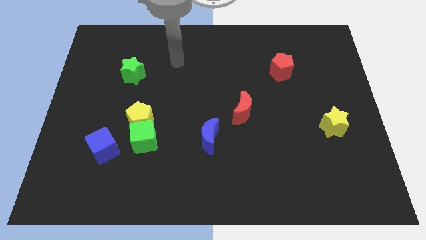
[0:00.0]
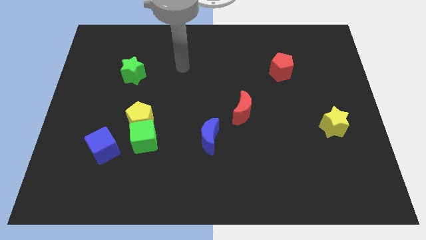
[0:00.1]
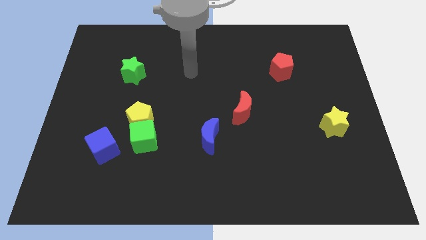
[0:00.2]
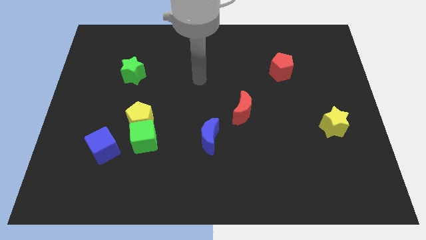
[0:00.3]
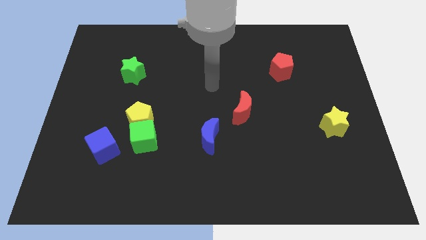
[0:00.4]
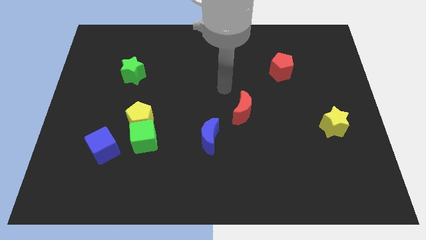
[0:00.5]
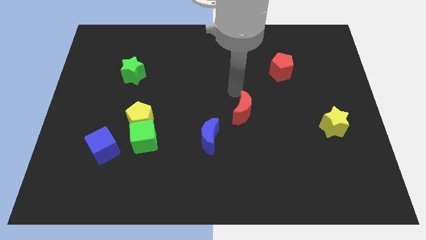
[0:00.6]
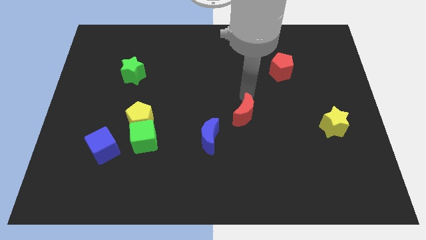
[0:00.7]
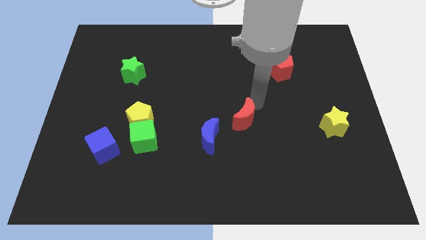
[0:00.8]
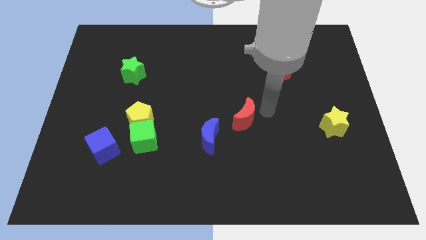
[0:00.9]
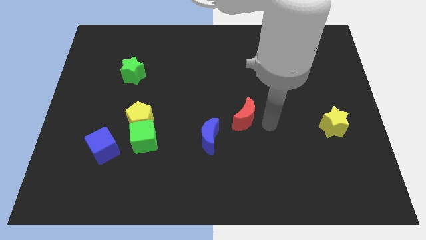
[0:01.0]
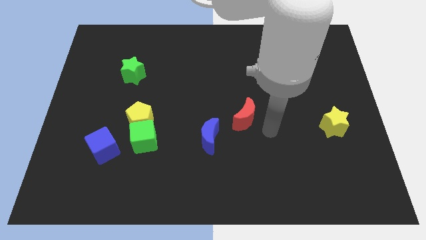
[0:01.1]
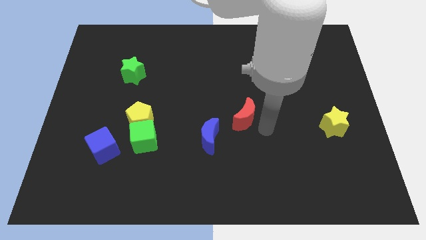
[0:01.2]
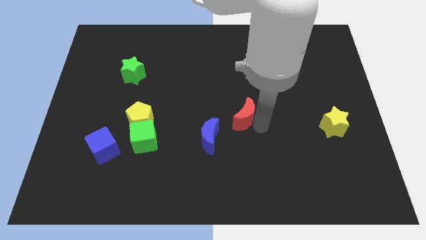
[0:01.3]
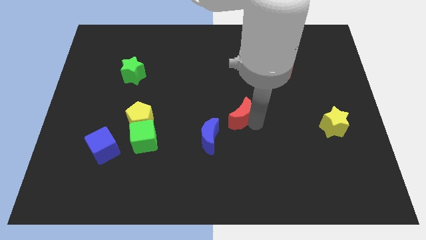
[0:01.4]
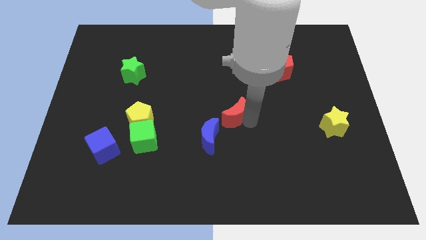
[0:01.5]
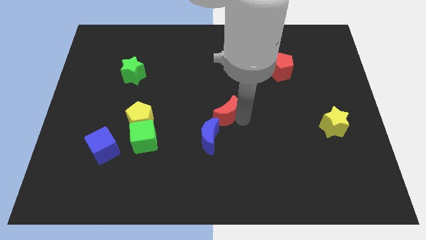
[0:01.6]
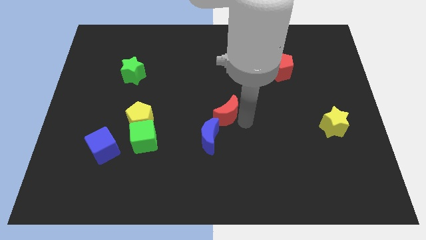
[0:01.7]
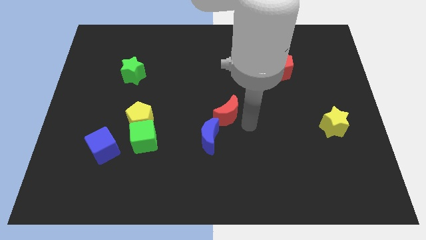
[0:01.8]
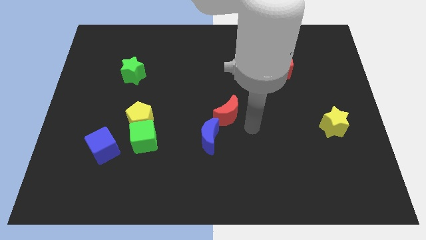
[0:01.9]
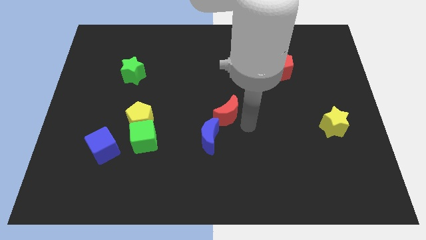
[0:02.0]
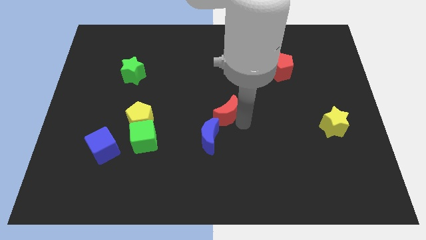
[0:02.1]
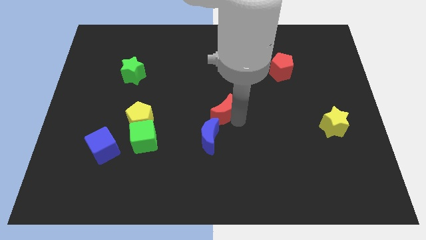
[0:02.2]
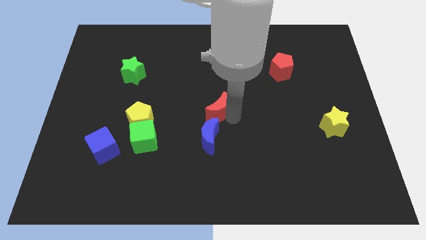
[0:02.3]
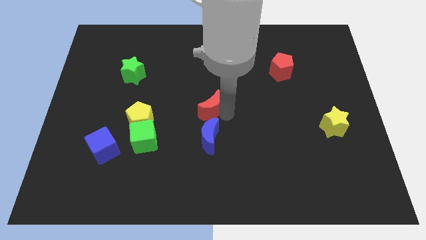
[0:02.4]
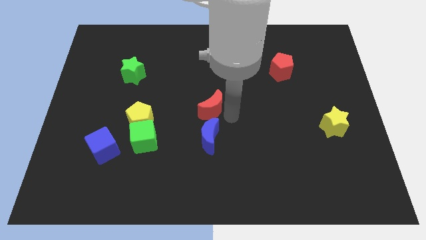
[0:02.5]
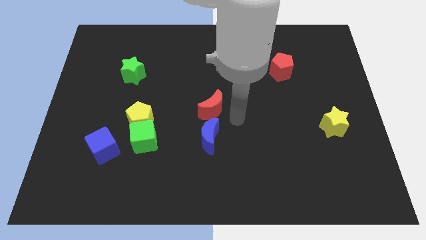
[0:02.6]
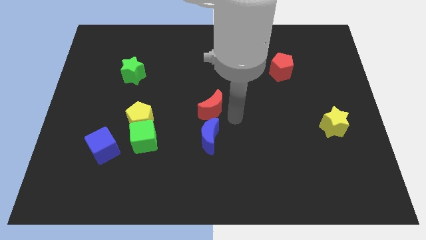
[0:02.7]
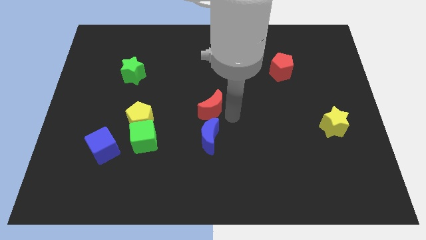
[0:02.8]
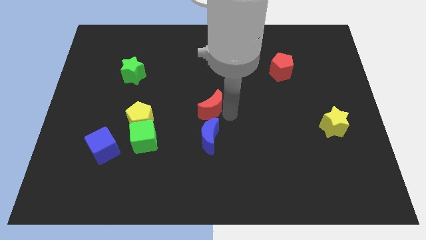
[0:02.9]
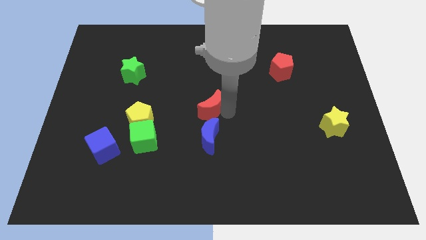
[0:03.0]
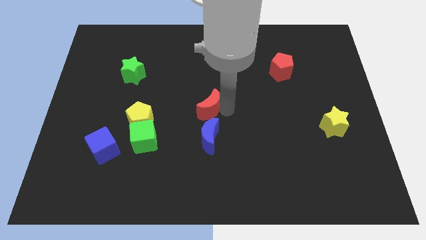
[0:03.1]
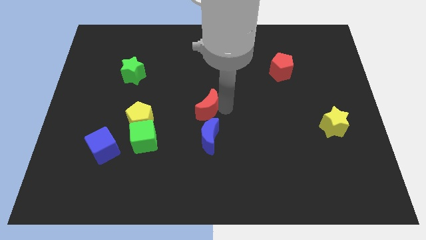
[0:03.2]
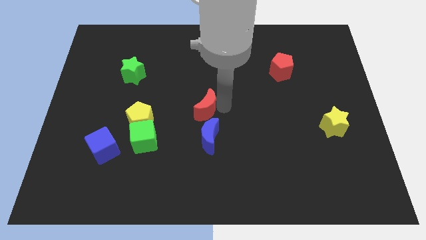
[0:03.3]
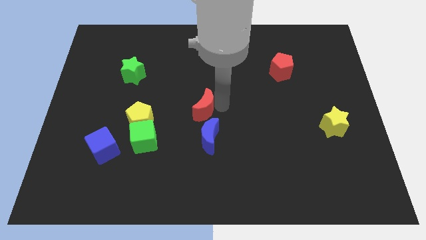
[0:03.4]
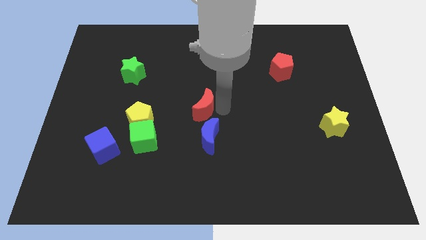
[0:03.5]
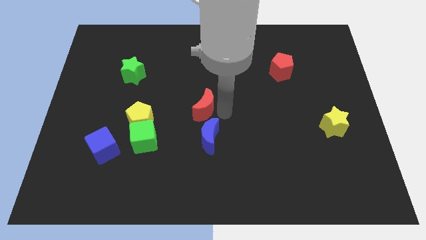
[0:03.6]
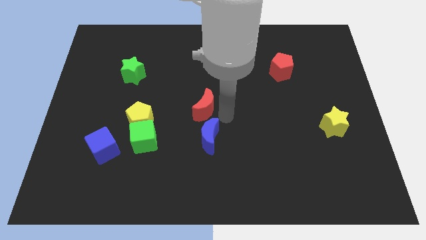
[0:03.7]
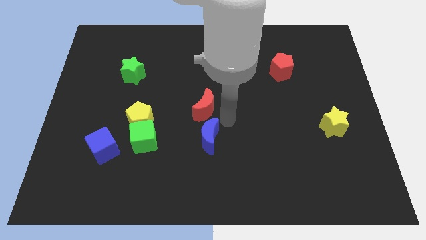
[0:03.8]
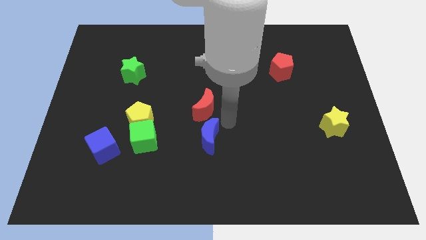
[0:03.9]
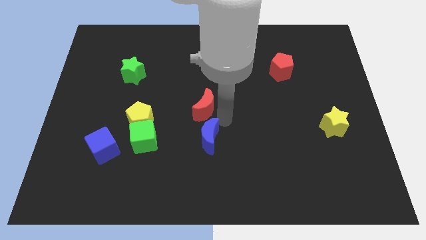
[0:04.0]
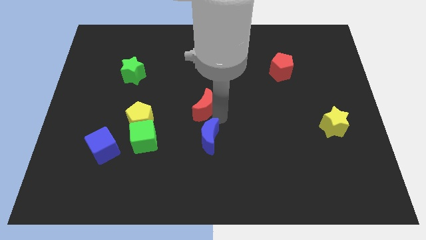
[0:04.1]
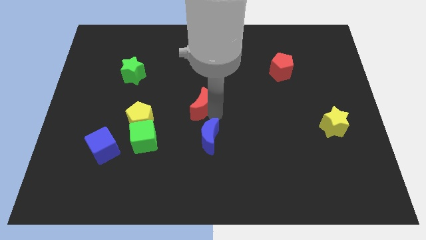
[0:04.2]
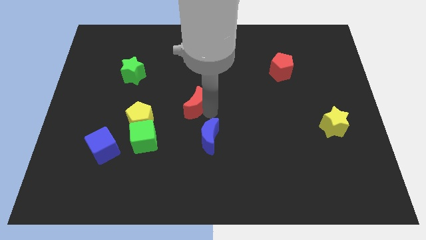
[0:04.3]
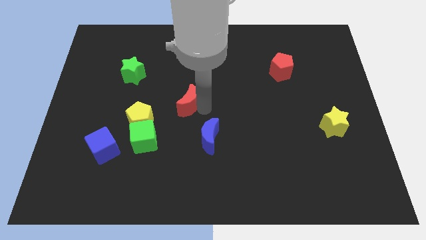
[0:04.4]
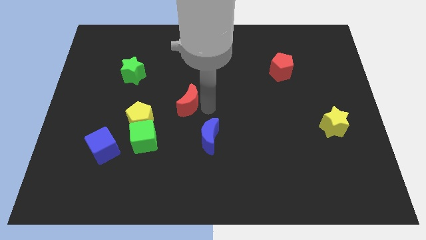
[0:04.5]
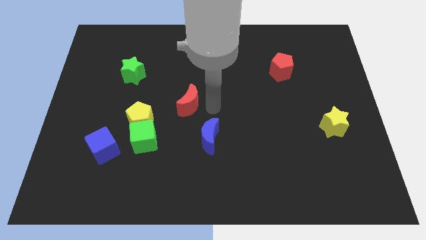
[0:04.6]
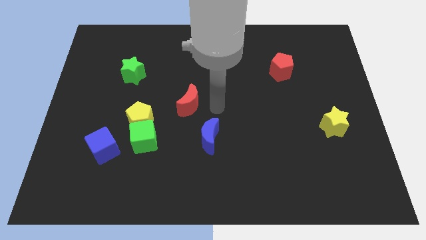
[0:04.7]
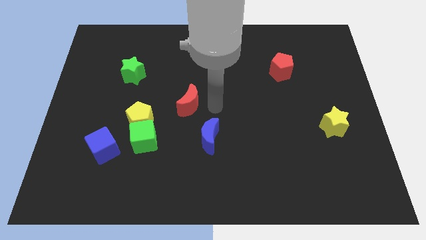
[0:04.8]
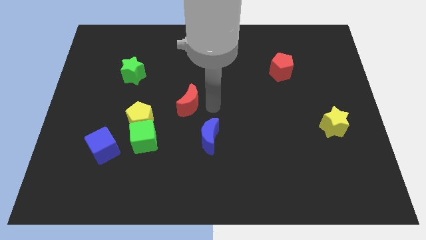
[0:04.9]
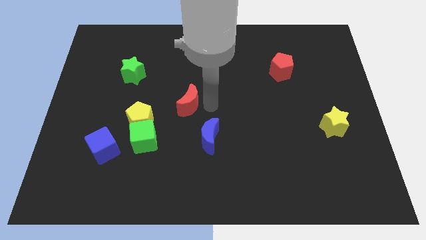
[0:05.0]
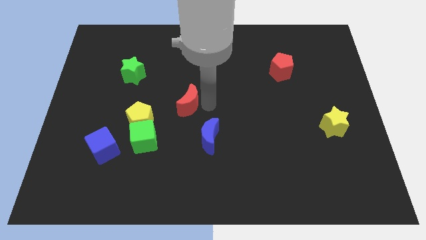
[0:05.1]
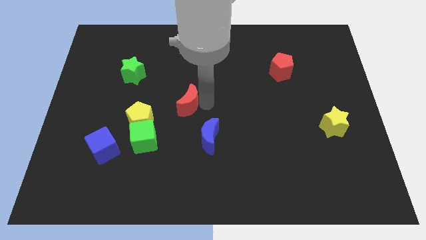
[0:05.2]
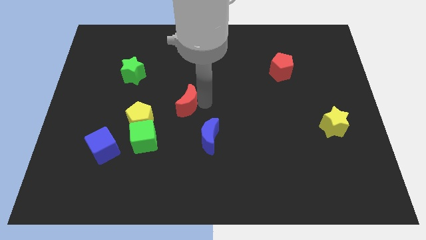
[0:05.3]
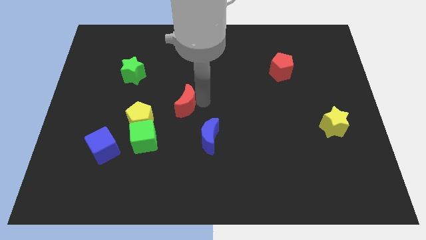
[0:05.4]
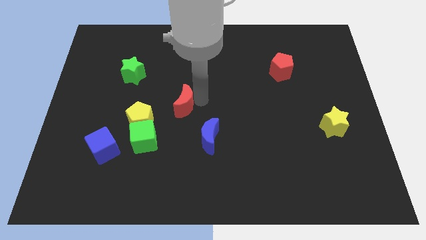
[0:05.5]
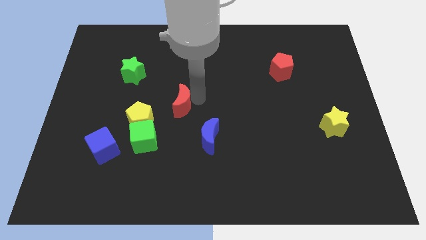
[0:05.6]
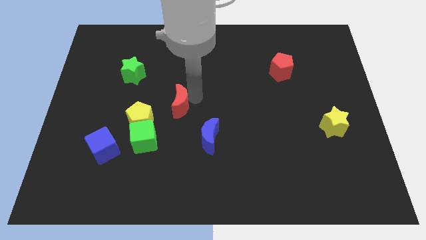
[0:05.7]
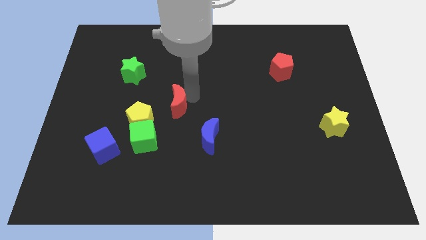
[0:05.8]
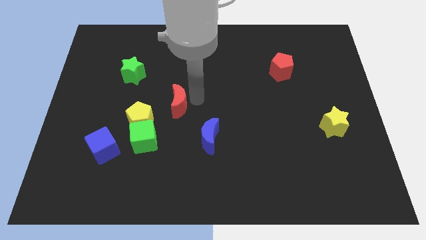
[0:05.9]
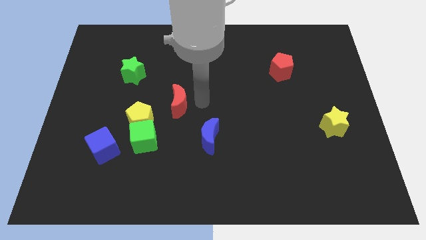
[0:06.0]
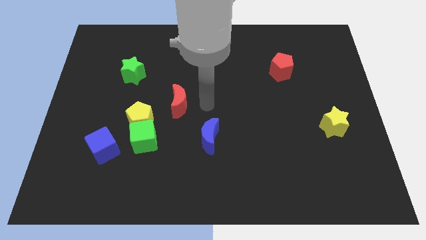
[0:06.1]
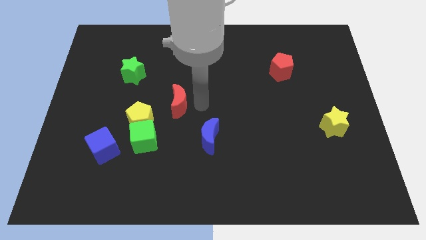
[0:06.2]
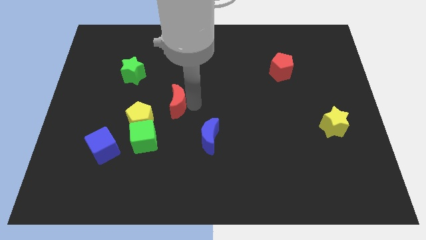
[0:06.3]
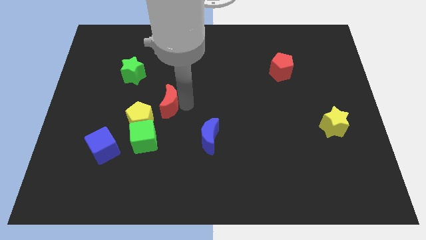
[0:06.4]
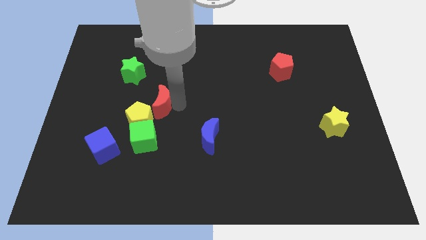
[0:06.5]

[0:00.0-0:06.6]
push the red moon above the green cube

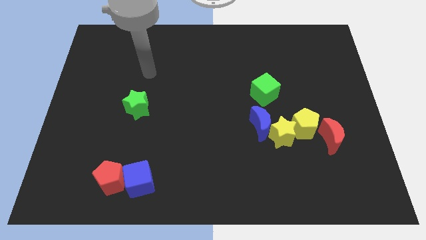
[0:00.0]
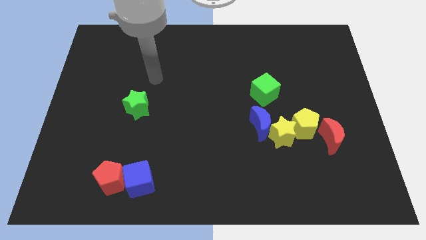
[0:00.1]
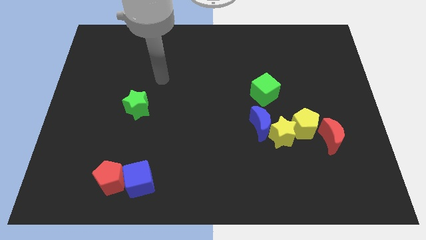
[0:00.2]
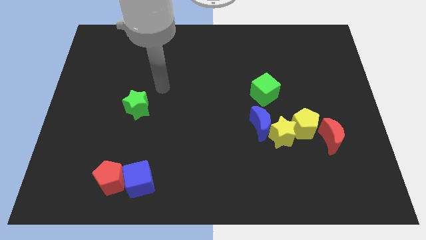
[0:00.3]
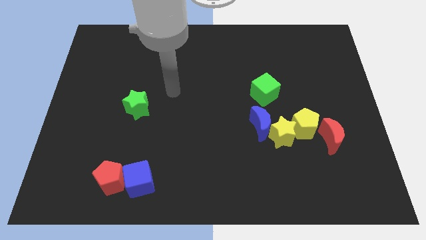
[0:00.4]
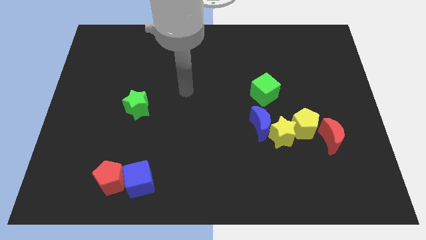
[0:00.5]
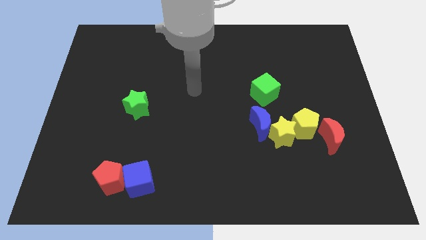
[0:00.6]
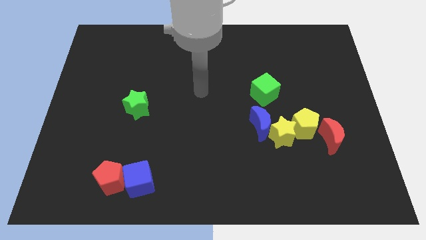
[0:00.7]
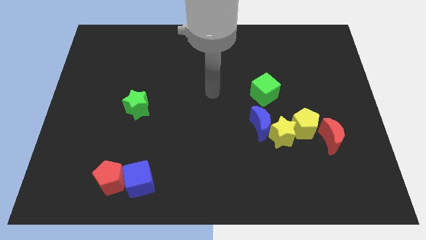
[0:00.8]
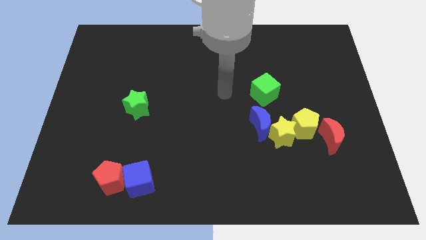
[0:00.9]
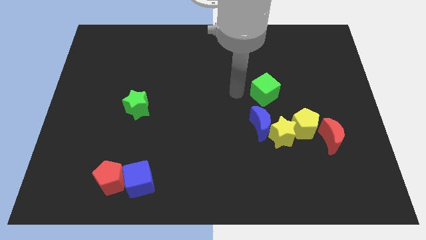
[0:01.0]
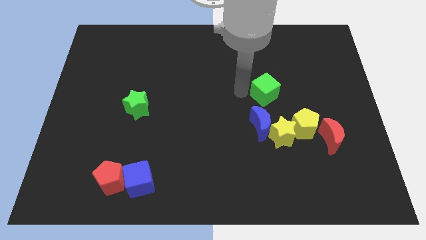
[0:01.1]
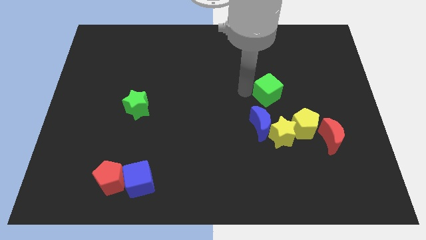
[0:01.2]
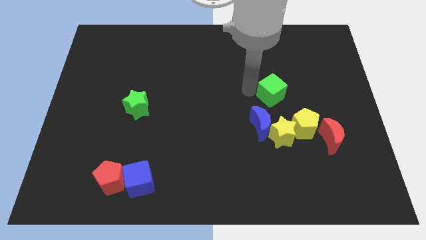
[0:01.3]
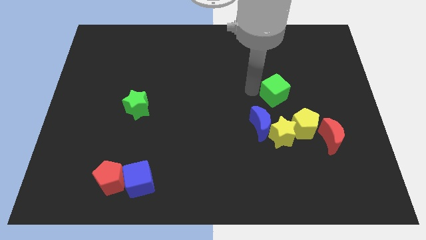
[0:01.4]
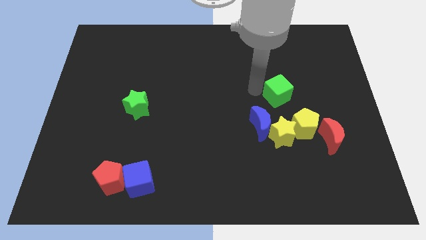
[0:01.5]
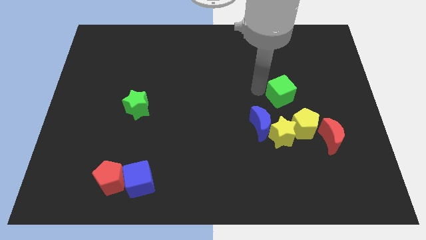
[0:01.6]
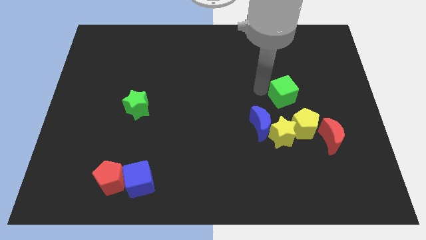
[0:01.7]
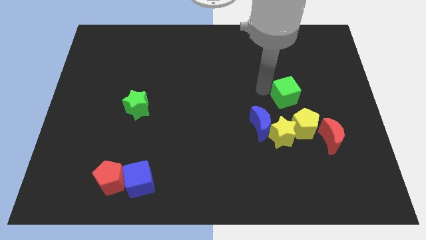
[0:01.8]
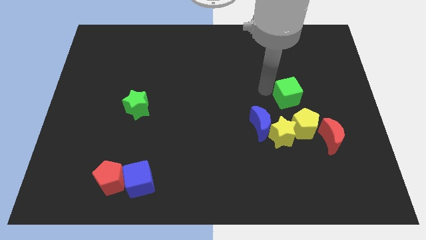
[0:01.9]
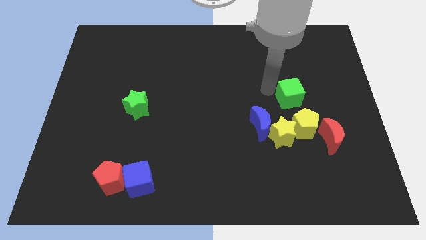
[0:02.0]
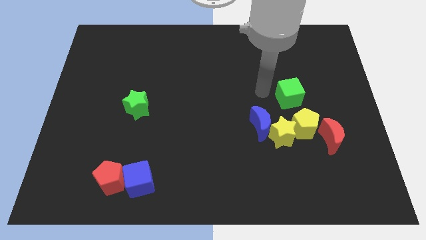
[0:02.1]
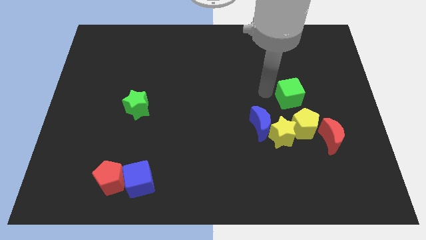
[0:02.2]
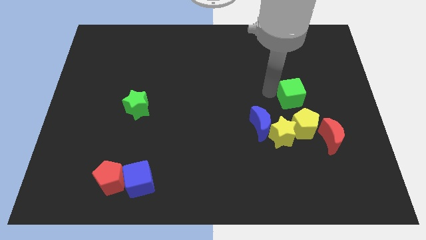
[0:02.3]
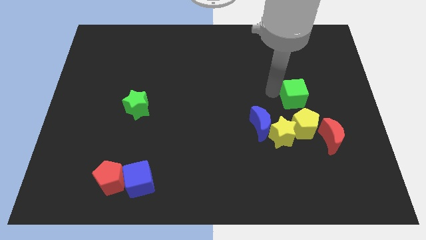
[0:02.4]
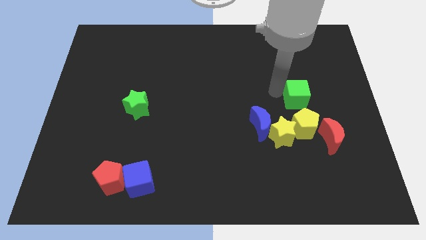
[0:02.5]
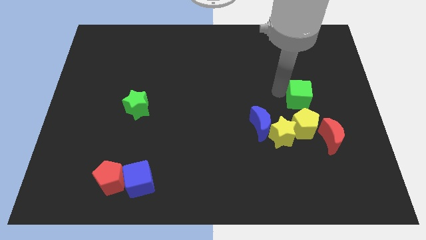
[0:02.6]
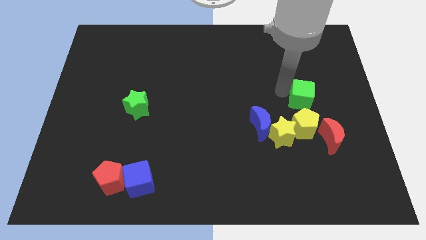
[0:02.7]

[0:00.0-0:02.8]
push the green cube to the top of the red moon
